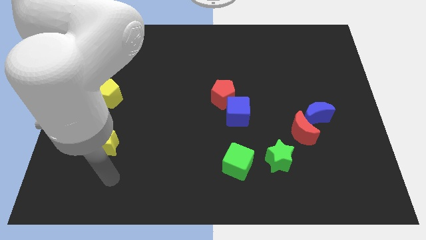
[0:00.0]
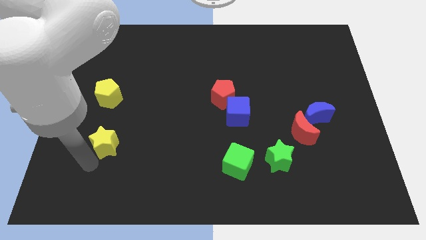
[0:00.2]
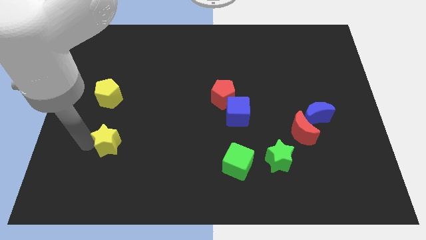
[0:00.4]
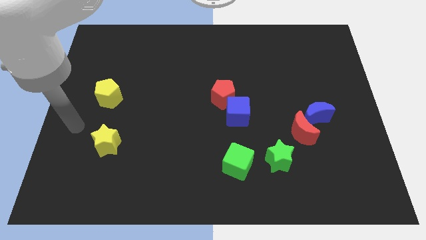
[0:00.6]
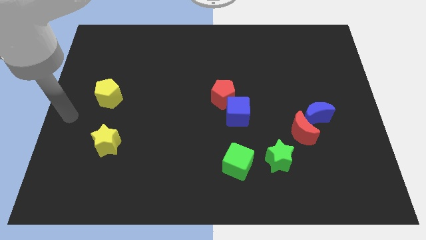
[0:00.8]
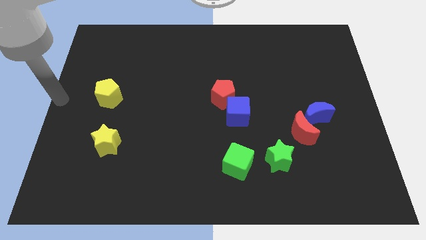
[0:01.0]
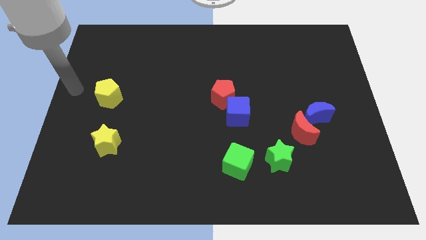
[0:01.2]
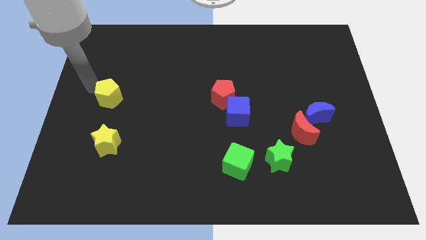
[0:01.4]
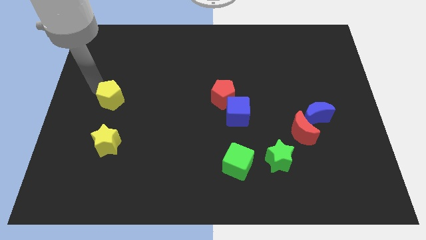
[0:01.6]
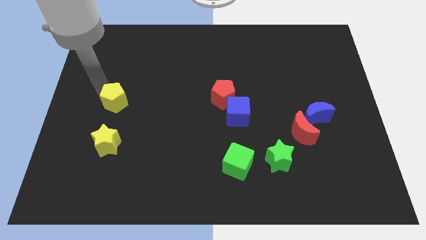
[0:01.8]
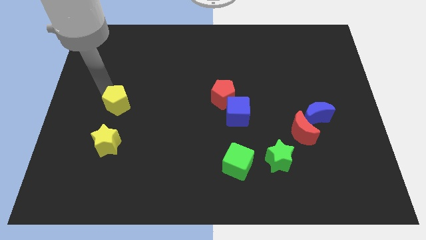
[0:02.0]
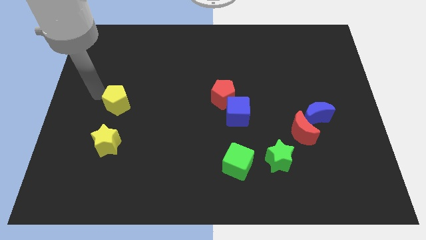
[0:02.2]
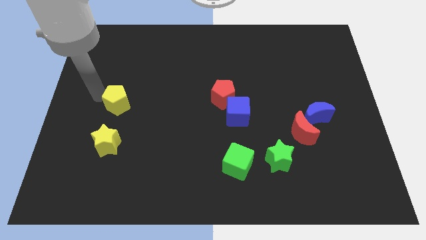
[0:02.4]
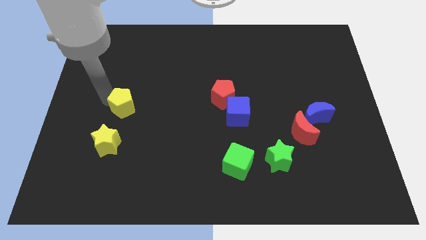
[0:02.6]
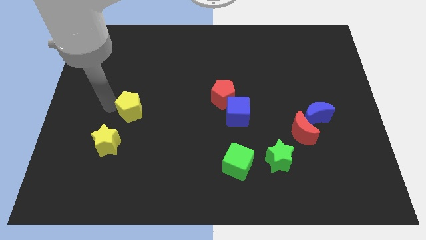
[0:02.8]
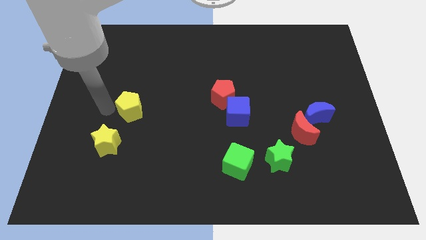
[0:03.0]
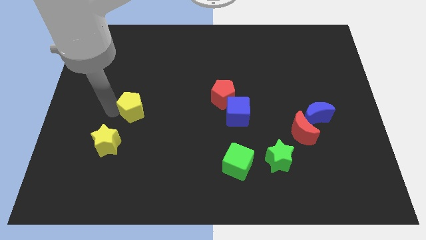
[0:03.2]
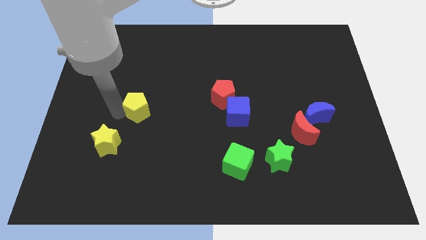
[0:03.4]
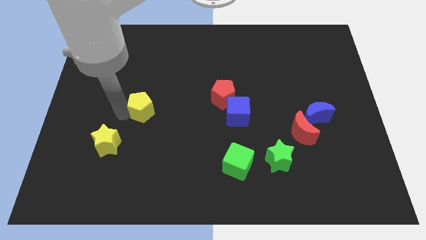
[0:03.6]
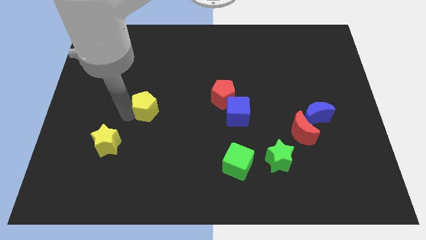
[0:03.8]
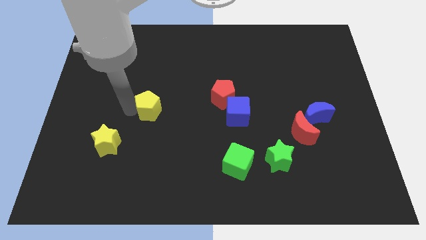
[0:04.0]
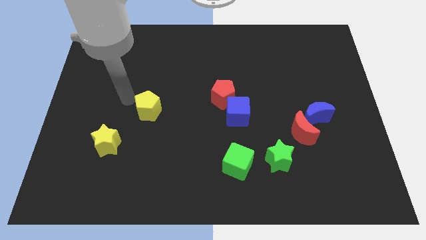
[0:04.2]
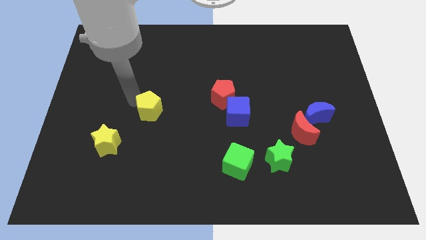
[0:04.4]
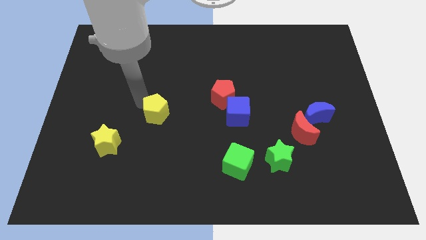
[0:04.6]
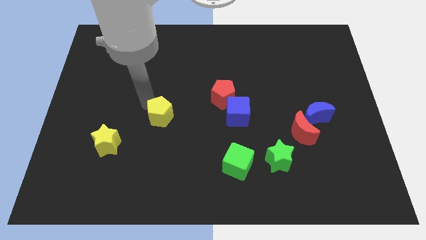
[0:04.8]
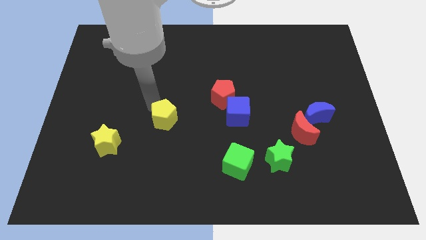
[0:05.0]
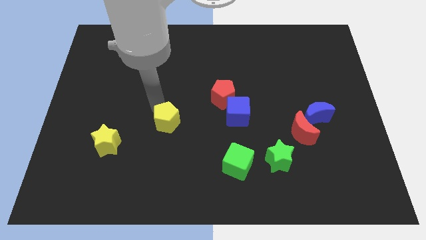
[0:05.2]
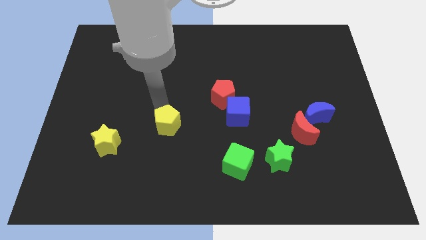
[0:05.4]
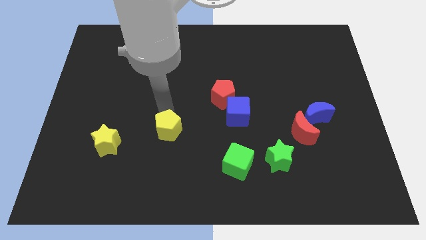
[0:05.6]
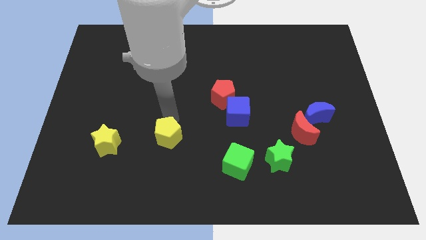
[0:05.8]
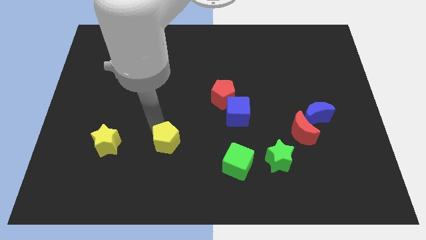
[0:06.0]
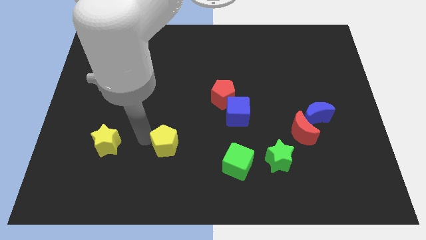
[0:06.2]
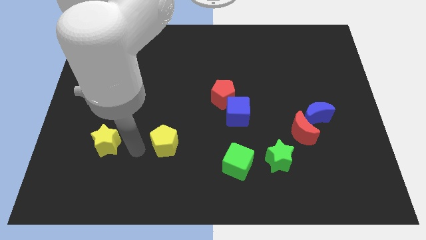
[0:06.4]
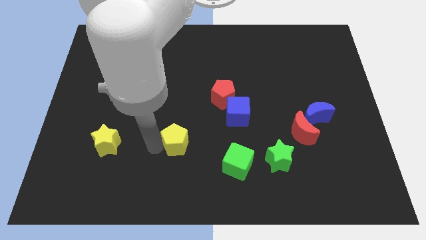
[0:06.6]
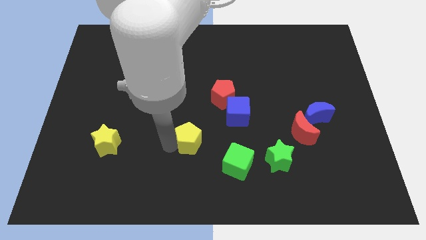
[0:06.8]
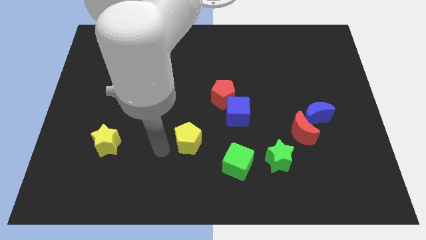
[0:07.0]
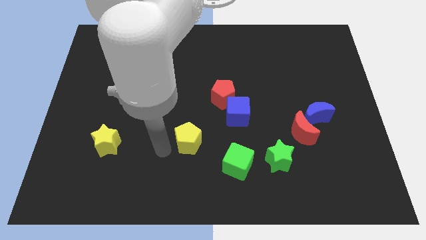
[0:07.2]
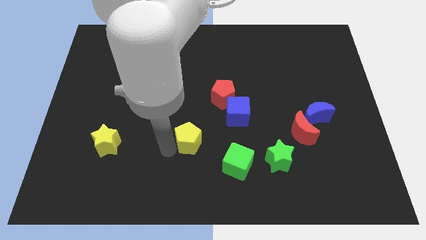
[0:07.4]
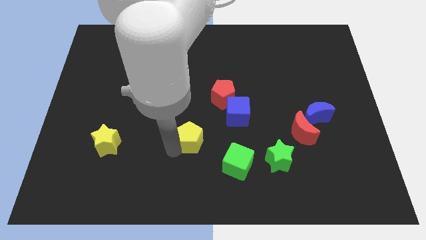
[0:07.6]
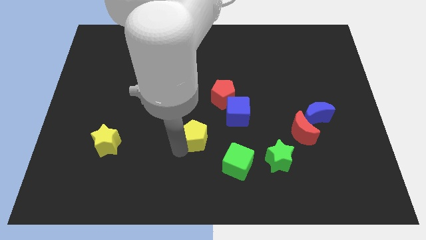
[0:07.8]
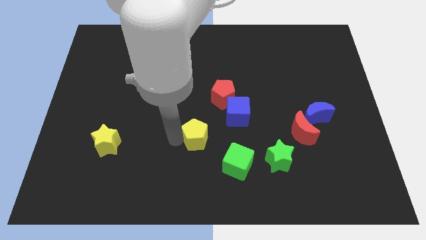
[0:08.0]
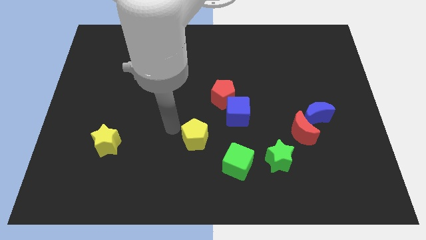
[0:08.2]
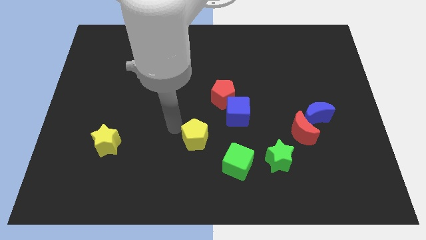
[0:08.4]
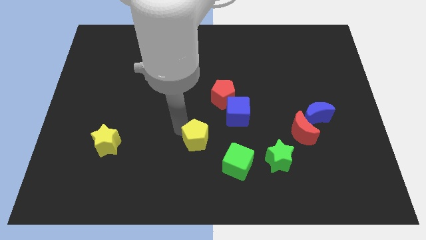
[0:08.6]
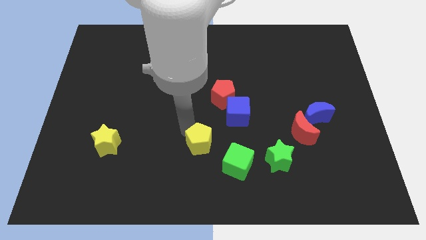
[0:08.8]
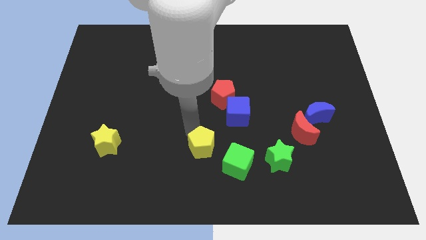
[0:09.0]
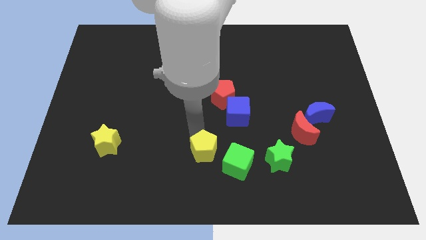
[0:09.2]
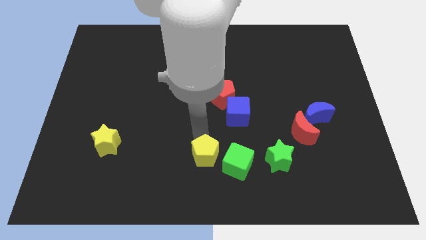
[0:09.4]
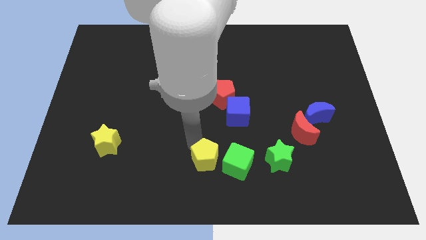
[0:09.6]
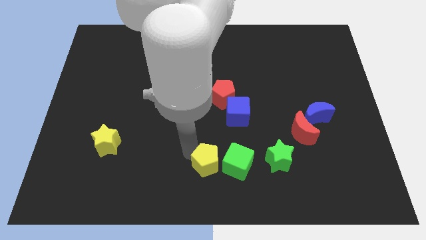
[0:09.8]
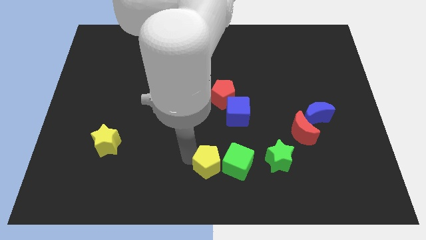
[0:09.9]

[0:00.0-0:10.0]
push the yellow pentagon towards the green cube

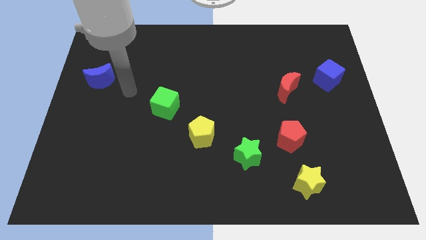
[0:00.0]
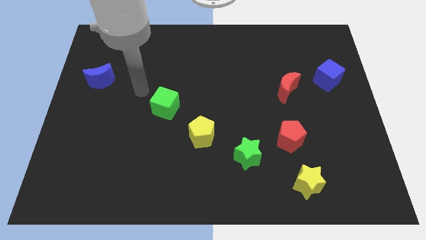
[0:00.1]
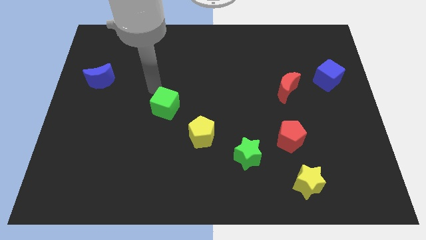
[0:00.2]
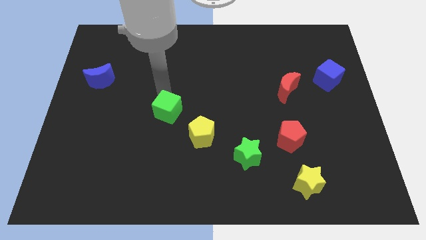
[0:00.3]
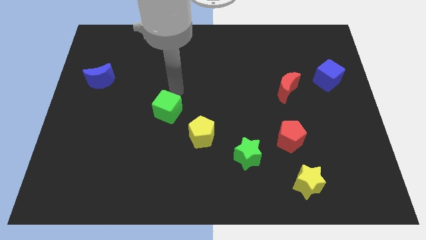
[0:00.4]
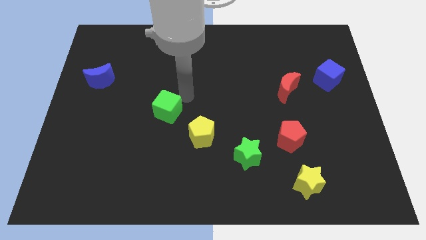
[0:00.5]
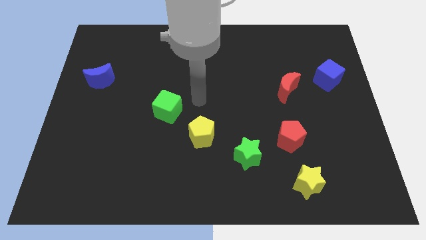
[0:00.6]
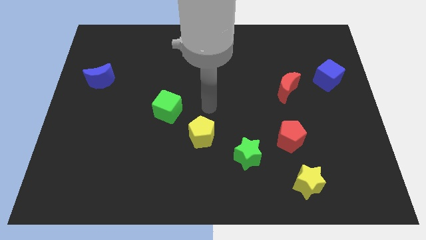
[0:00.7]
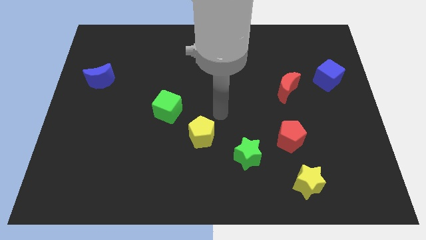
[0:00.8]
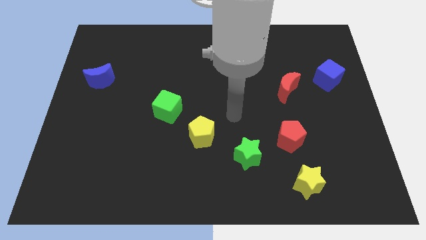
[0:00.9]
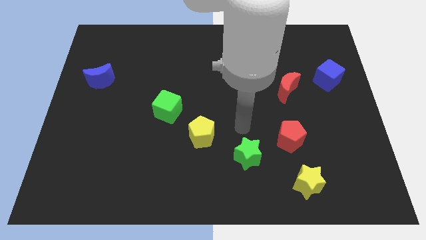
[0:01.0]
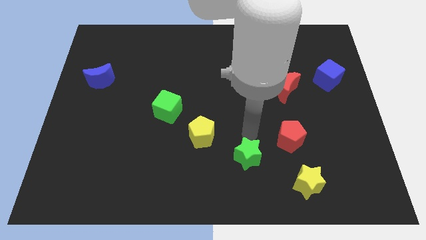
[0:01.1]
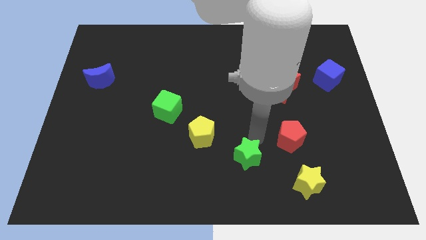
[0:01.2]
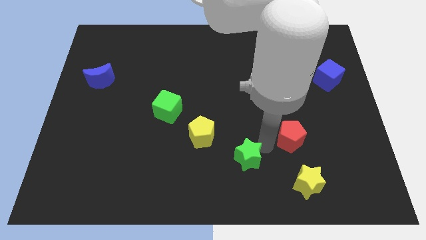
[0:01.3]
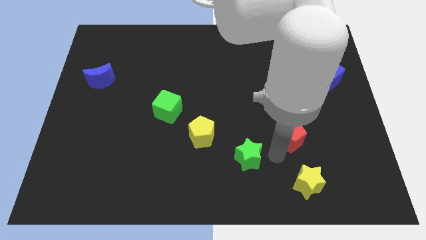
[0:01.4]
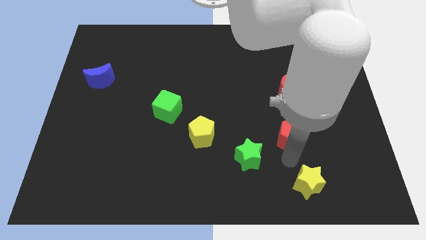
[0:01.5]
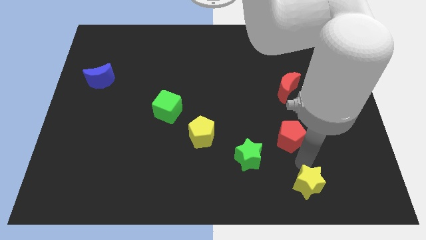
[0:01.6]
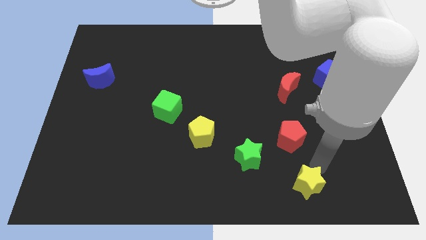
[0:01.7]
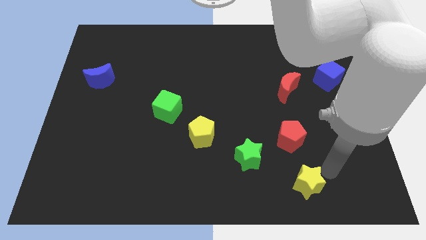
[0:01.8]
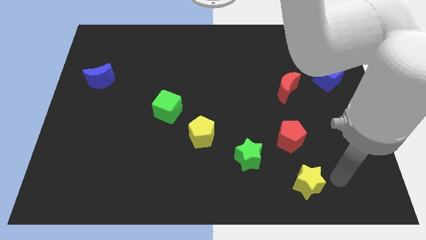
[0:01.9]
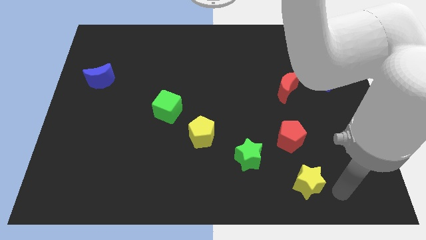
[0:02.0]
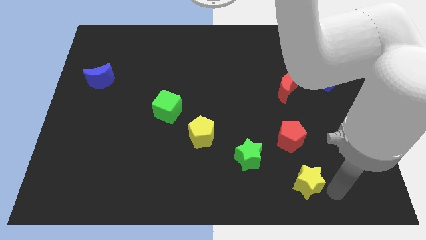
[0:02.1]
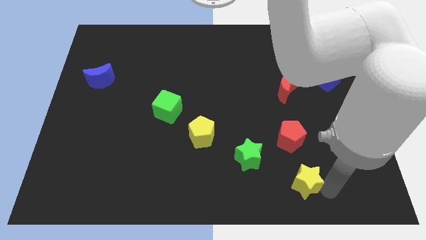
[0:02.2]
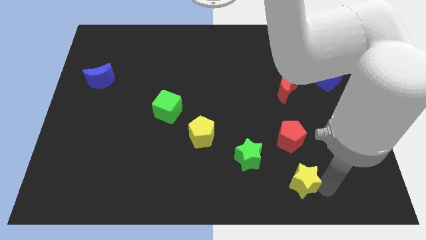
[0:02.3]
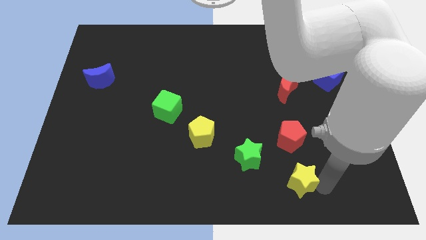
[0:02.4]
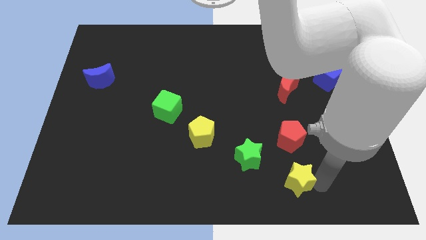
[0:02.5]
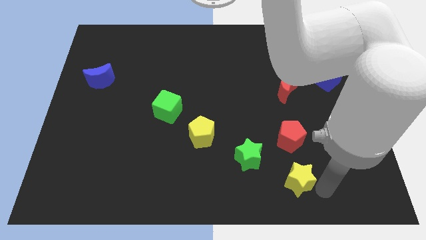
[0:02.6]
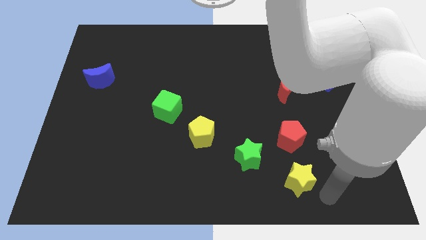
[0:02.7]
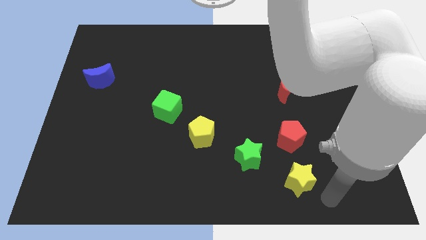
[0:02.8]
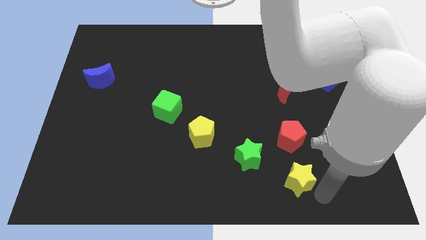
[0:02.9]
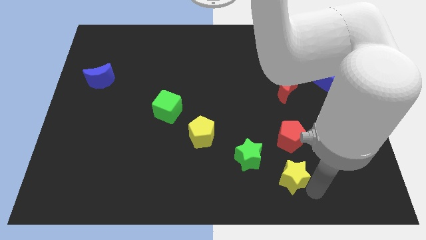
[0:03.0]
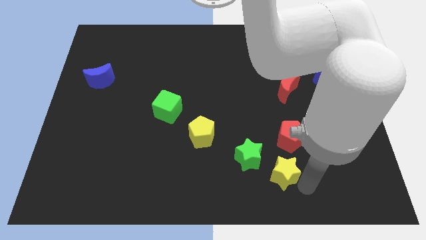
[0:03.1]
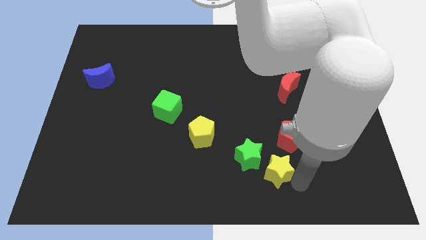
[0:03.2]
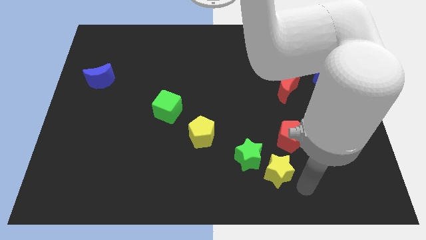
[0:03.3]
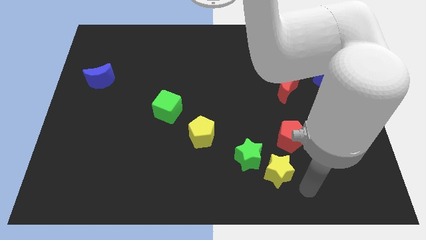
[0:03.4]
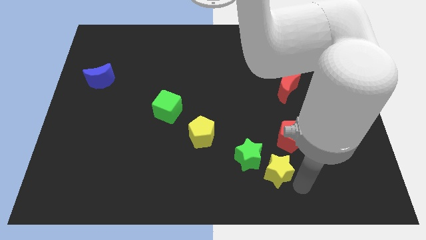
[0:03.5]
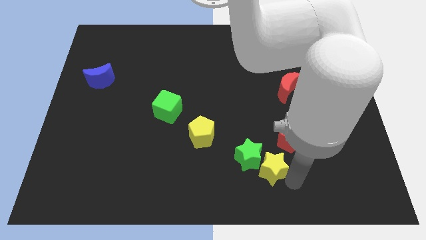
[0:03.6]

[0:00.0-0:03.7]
push the yellow star next to the green star
